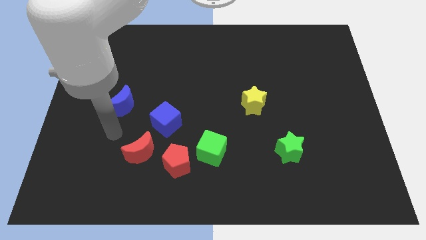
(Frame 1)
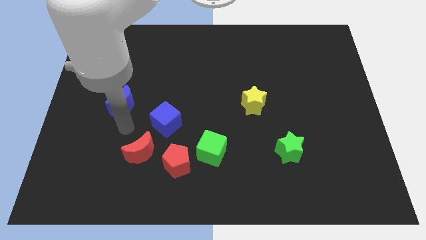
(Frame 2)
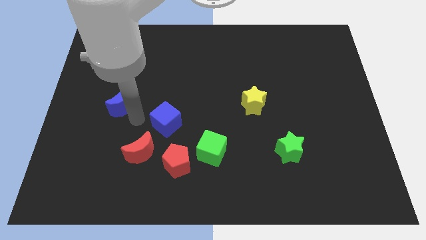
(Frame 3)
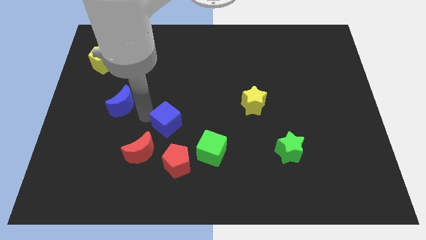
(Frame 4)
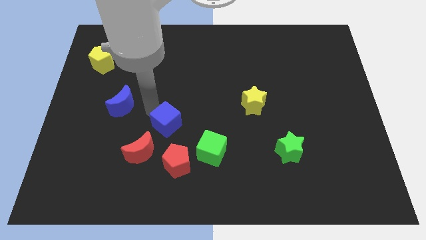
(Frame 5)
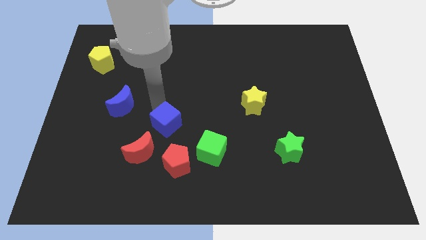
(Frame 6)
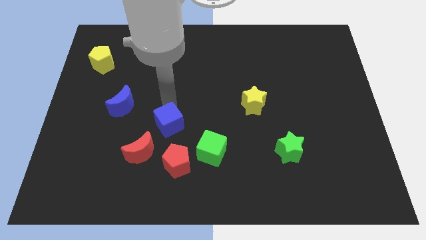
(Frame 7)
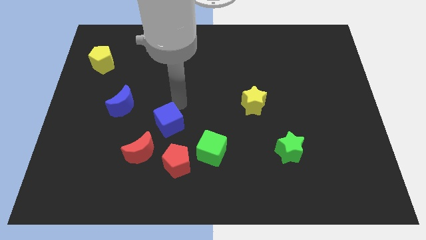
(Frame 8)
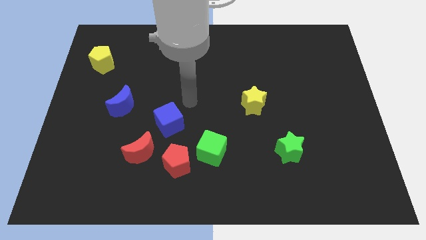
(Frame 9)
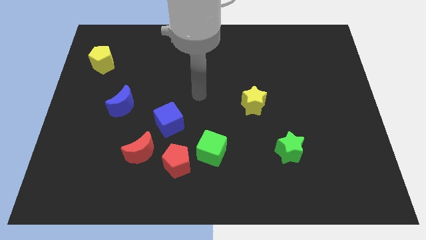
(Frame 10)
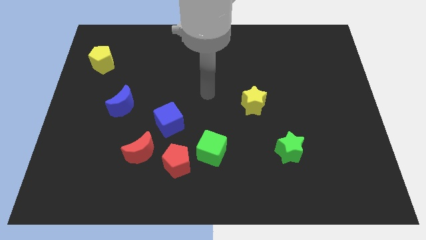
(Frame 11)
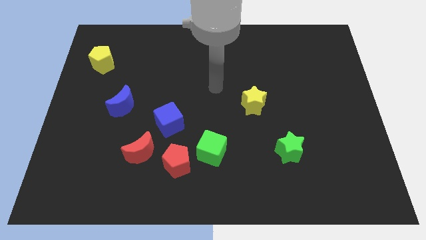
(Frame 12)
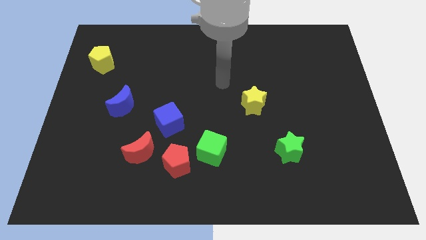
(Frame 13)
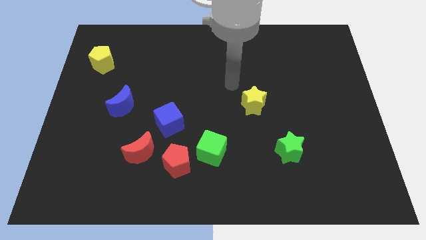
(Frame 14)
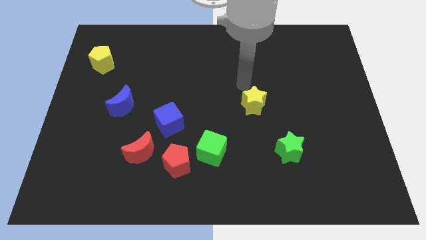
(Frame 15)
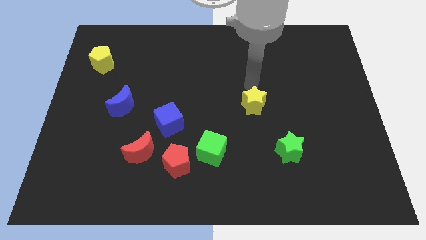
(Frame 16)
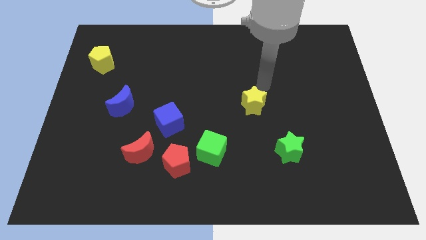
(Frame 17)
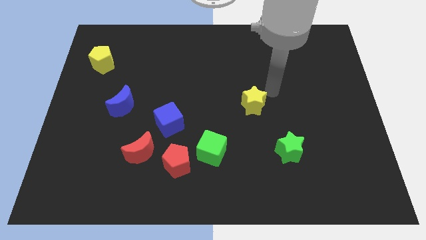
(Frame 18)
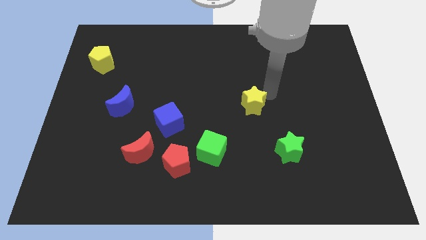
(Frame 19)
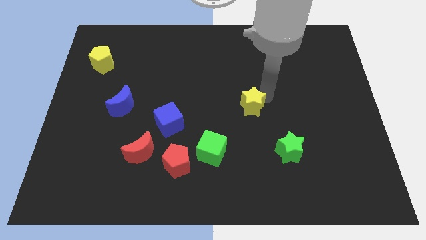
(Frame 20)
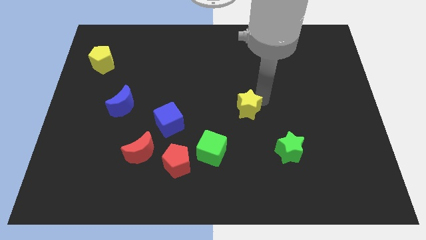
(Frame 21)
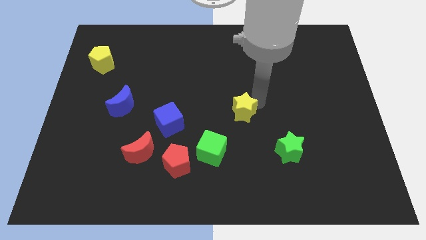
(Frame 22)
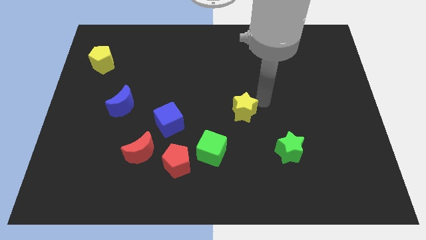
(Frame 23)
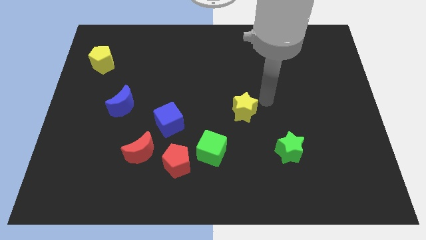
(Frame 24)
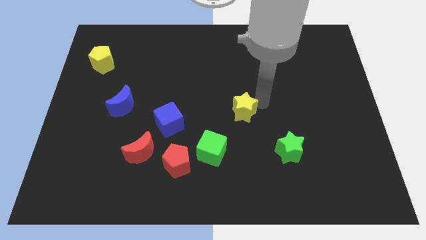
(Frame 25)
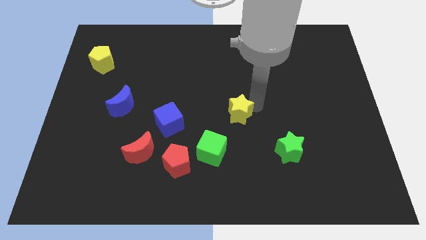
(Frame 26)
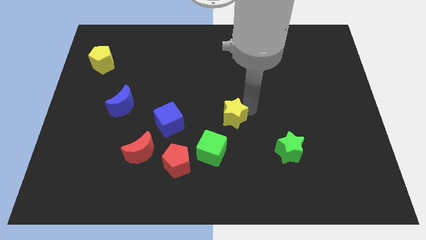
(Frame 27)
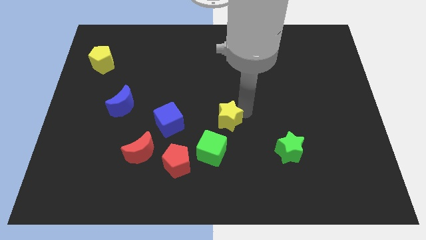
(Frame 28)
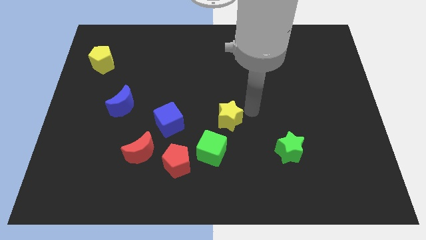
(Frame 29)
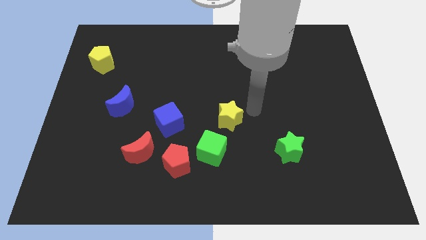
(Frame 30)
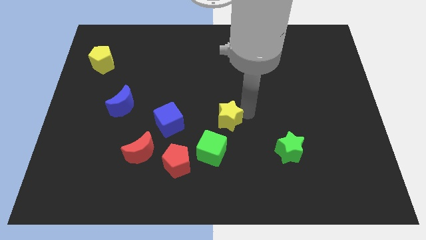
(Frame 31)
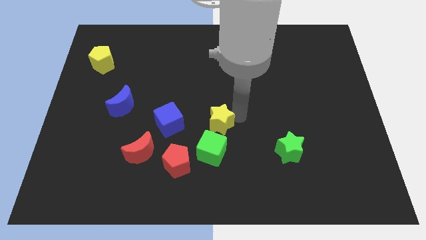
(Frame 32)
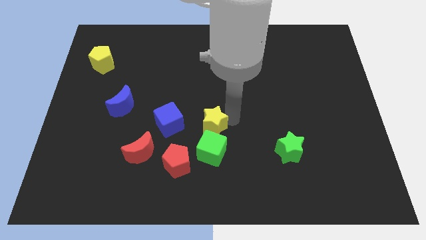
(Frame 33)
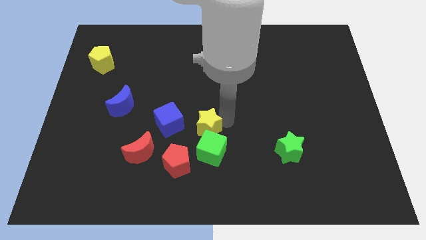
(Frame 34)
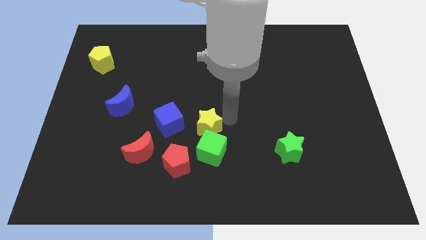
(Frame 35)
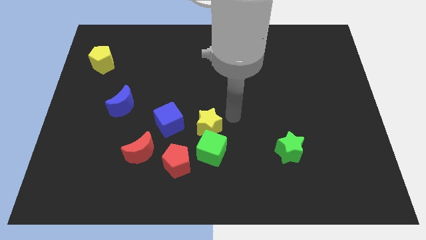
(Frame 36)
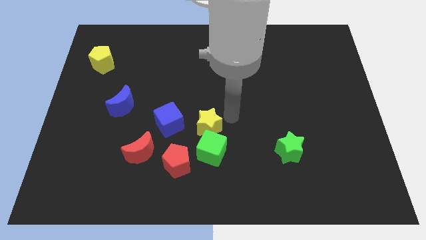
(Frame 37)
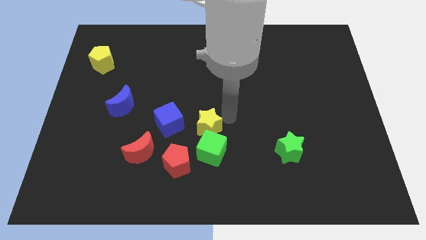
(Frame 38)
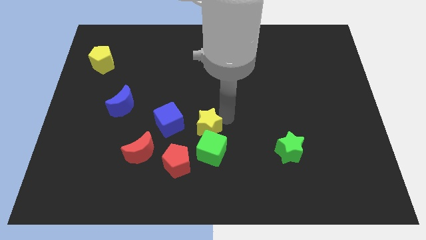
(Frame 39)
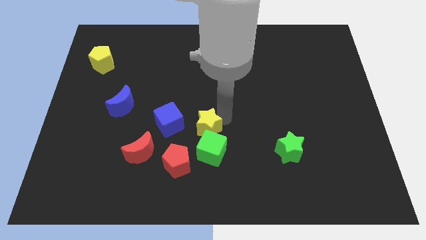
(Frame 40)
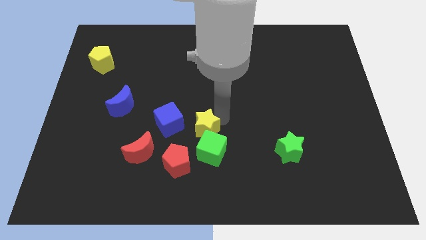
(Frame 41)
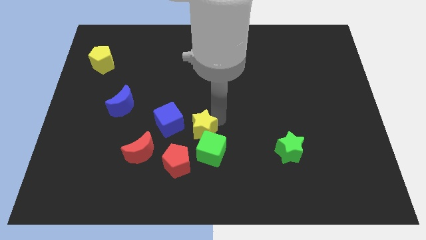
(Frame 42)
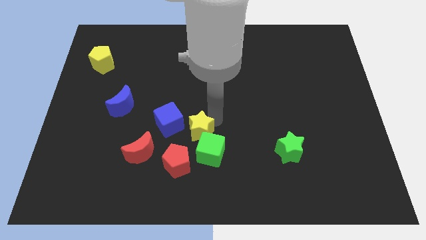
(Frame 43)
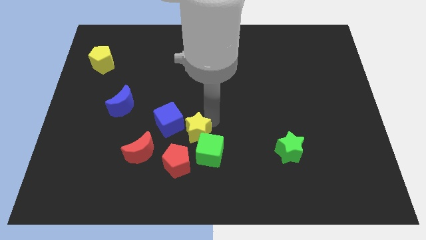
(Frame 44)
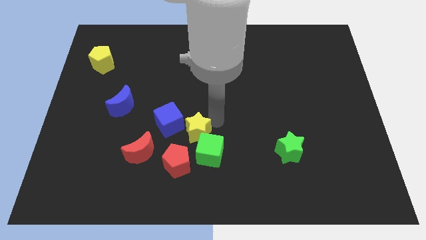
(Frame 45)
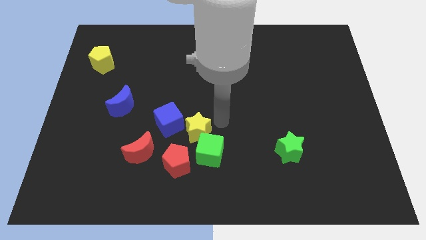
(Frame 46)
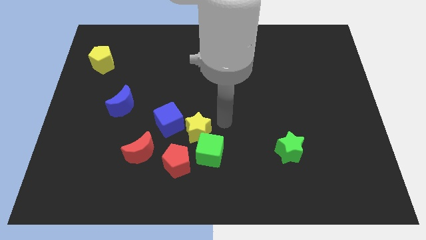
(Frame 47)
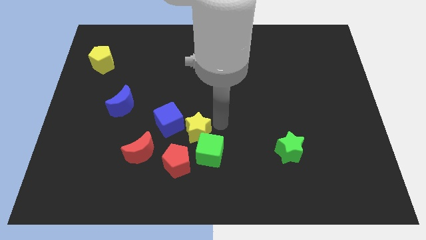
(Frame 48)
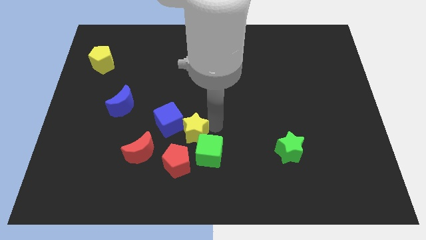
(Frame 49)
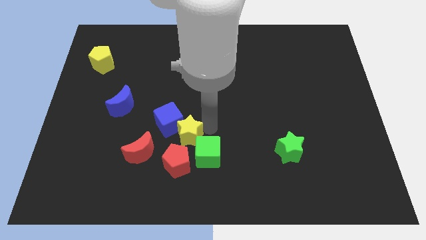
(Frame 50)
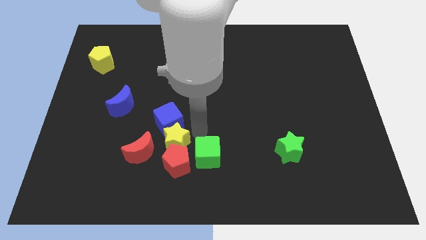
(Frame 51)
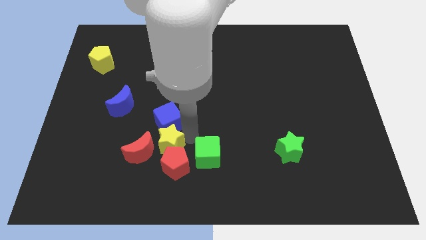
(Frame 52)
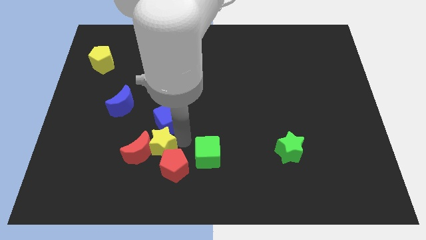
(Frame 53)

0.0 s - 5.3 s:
slide the yellow star towards the red moon

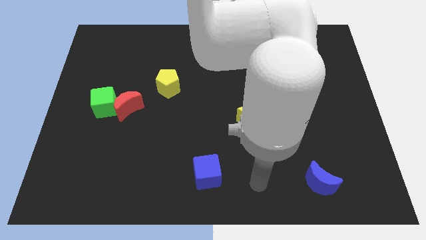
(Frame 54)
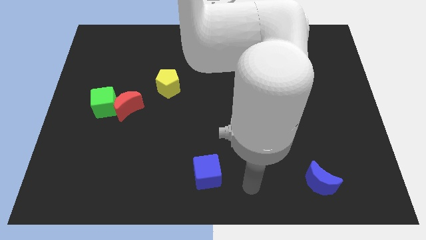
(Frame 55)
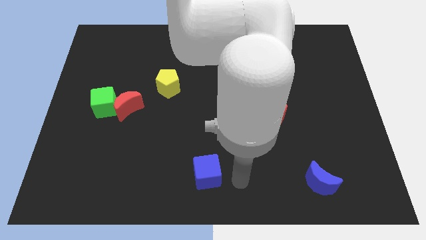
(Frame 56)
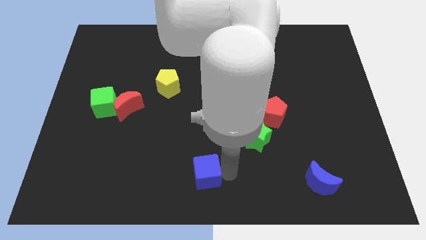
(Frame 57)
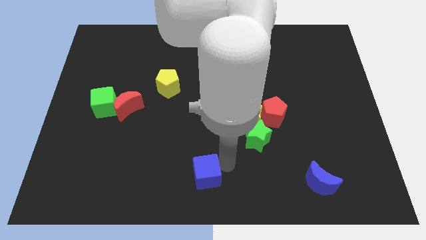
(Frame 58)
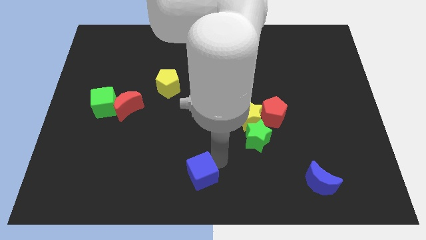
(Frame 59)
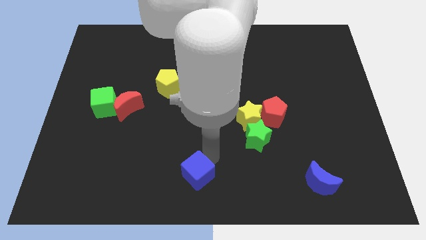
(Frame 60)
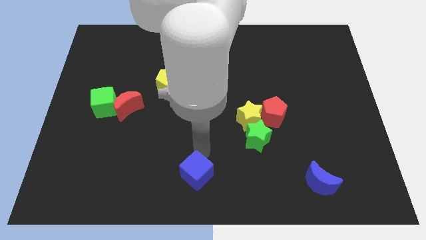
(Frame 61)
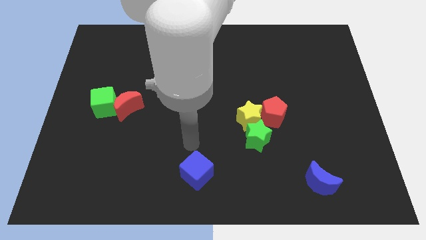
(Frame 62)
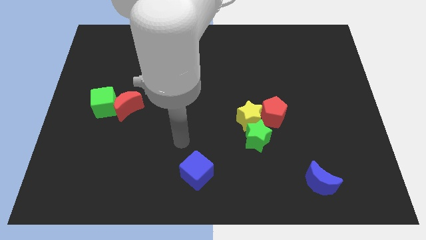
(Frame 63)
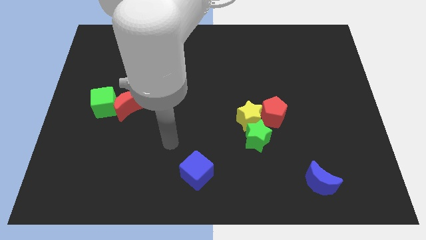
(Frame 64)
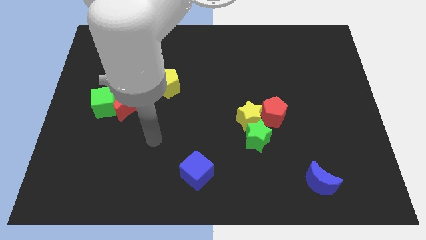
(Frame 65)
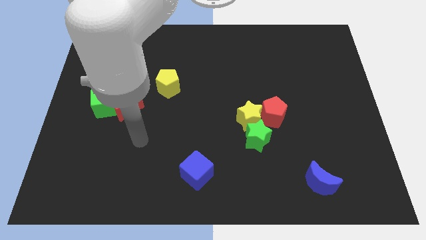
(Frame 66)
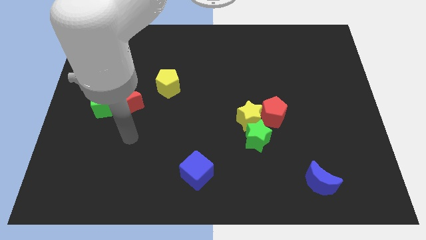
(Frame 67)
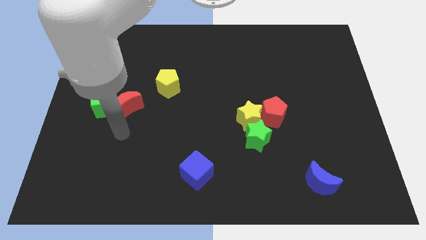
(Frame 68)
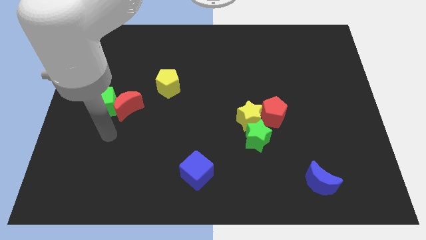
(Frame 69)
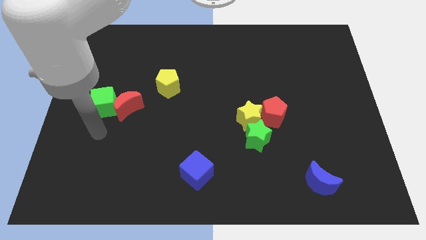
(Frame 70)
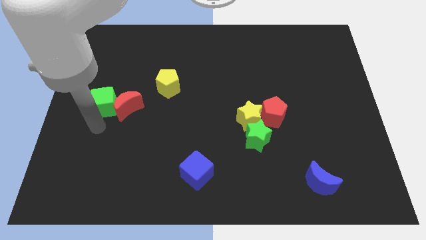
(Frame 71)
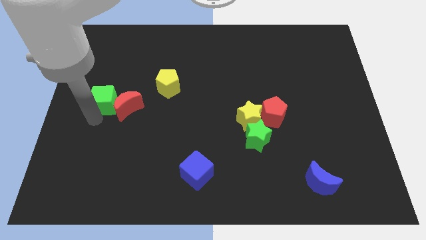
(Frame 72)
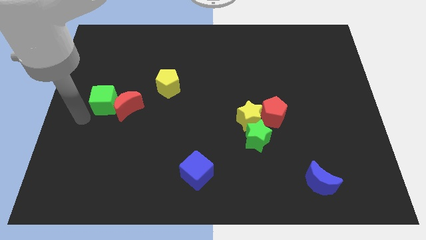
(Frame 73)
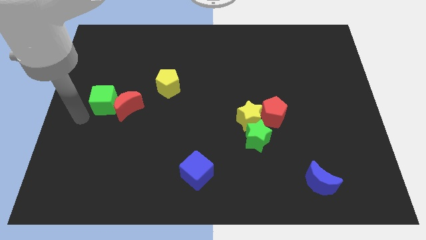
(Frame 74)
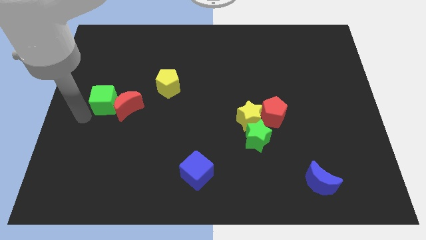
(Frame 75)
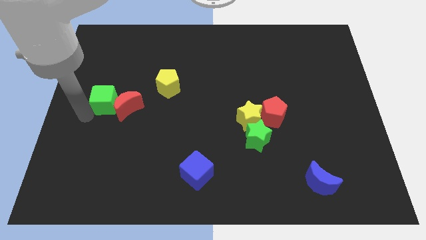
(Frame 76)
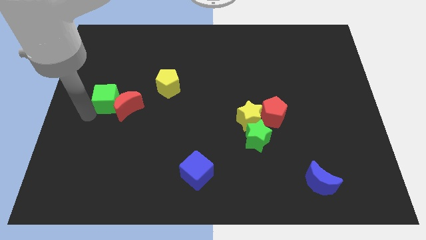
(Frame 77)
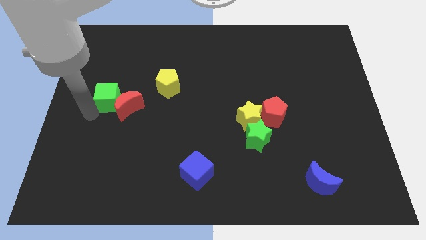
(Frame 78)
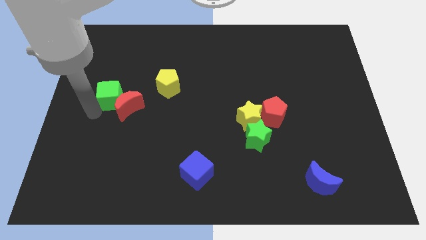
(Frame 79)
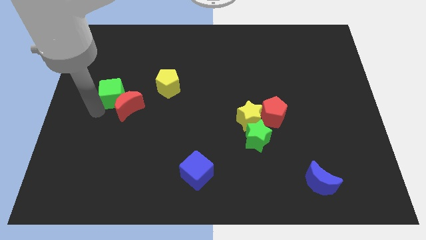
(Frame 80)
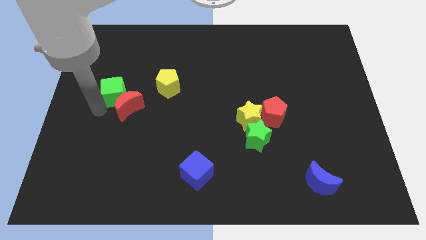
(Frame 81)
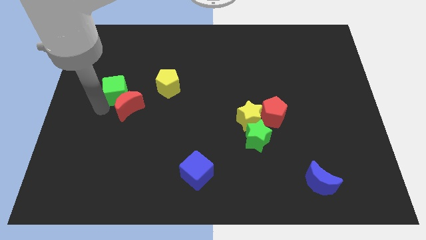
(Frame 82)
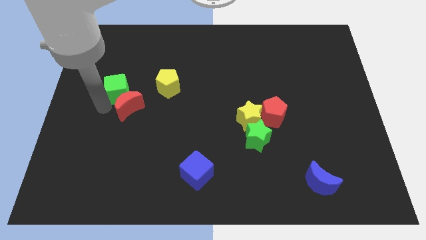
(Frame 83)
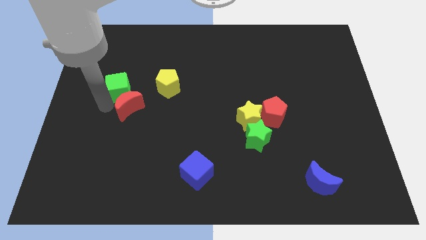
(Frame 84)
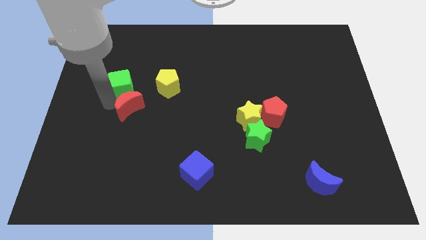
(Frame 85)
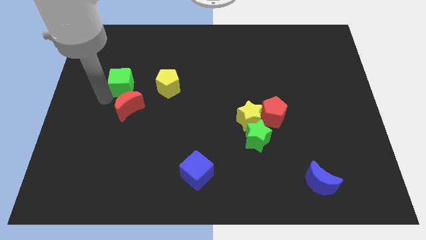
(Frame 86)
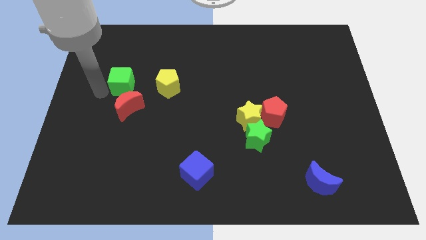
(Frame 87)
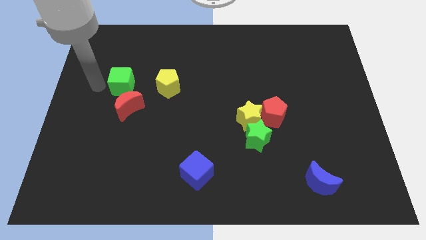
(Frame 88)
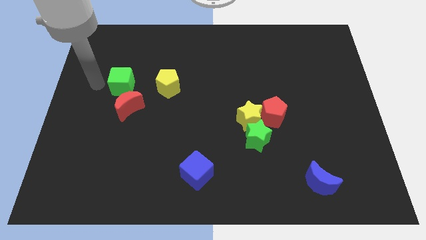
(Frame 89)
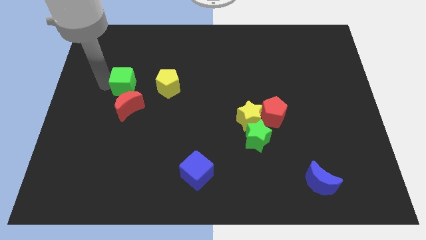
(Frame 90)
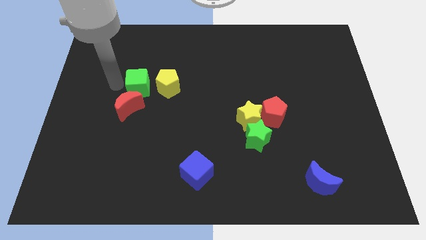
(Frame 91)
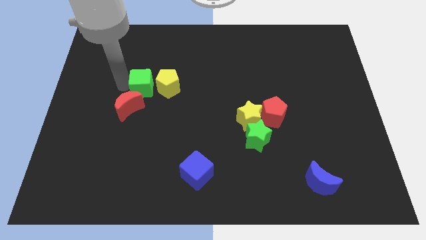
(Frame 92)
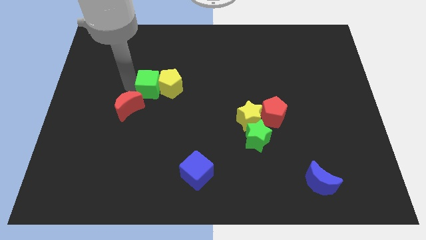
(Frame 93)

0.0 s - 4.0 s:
push the green cube next to the yellow pentagon
